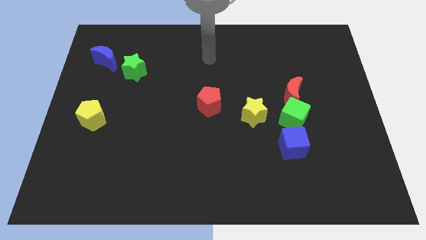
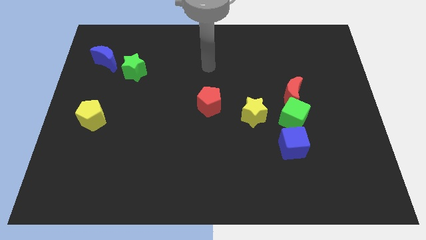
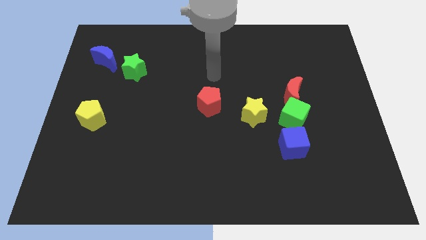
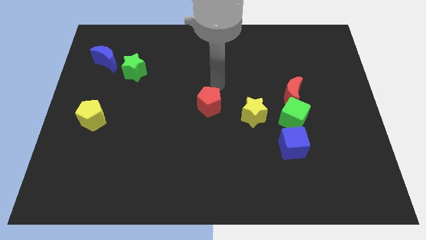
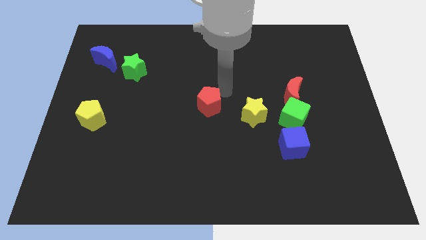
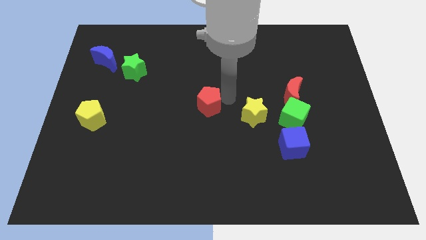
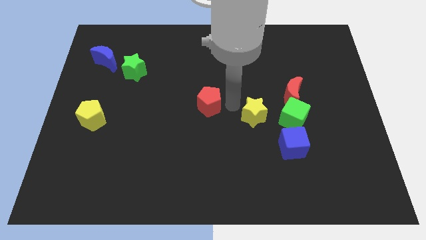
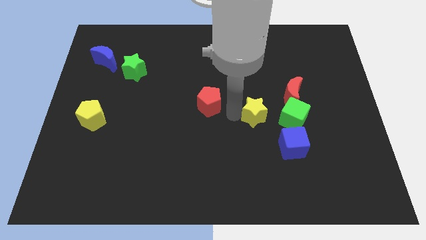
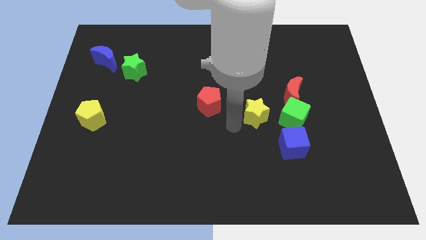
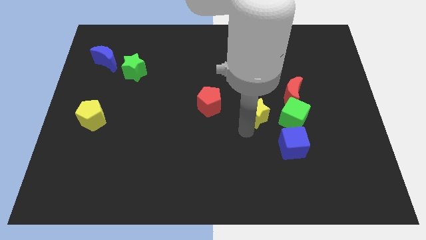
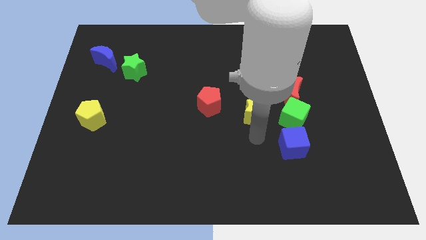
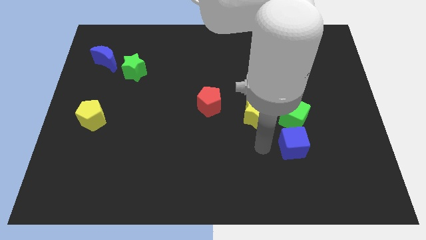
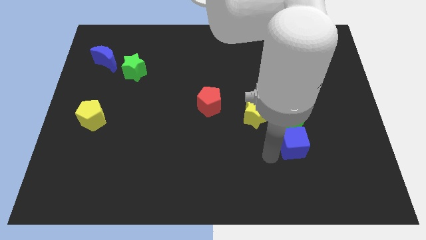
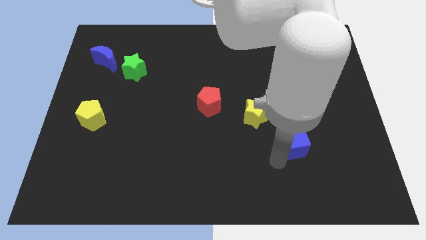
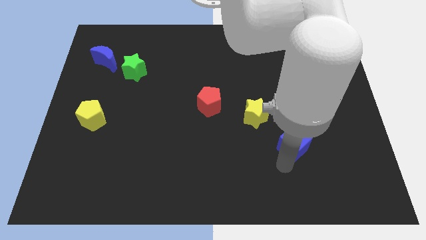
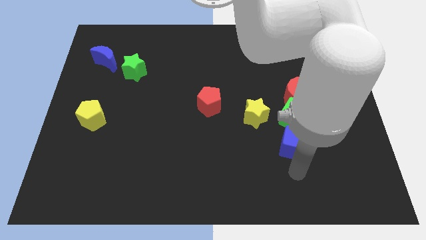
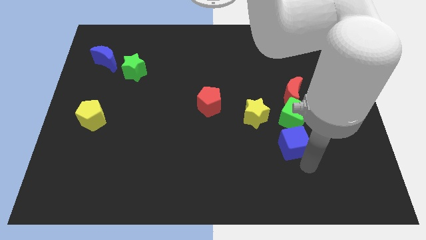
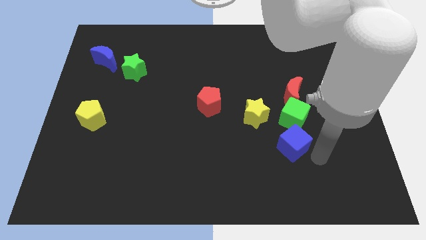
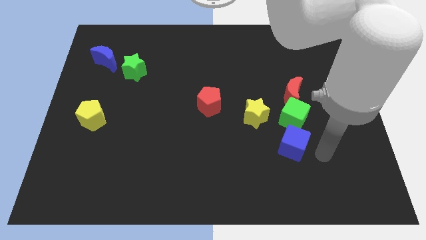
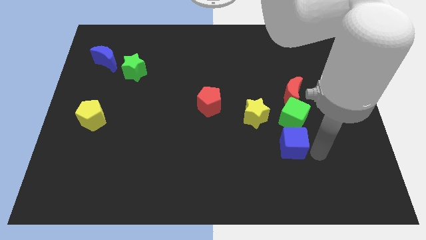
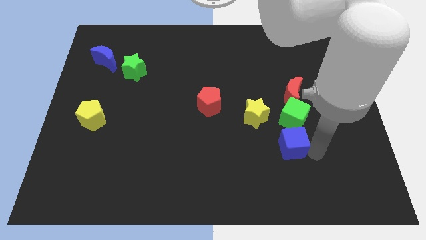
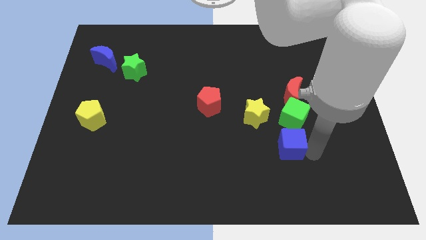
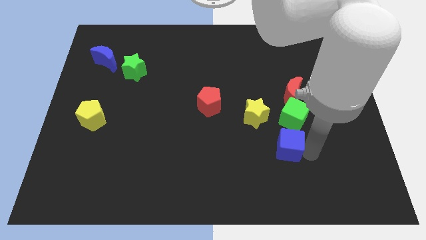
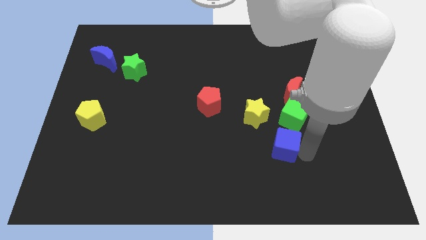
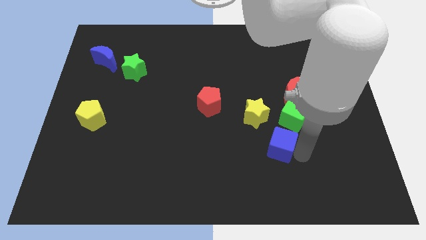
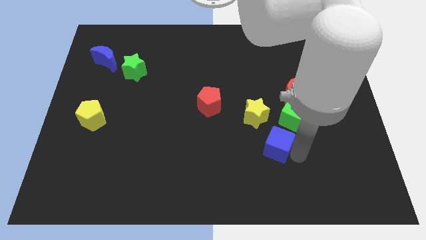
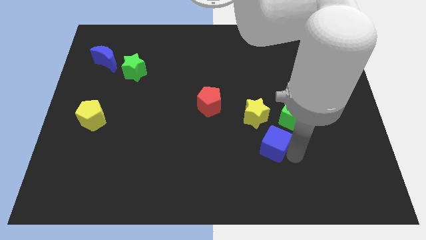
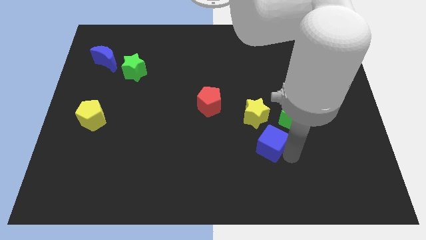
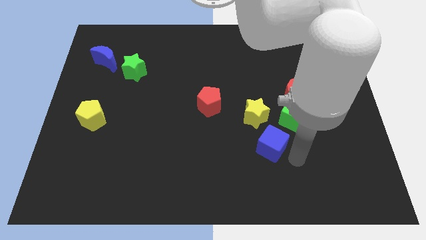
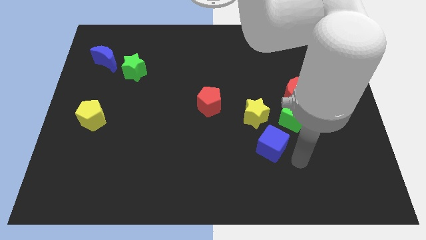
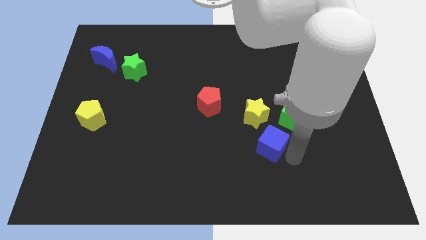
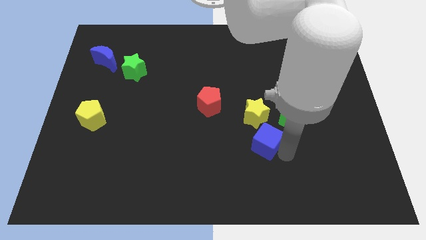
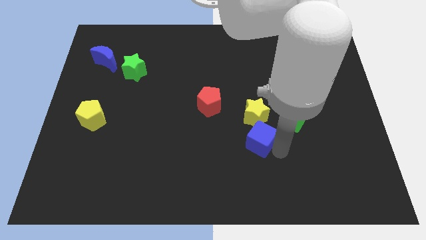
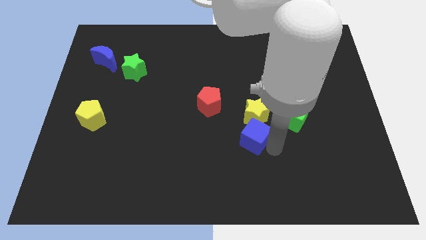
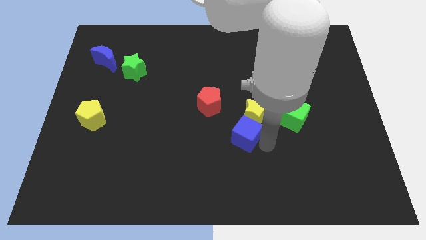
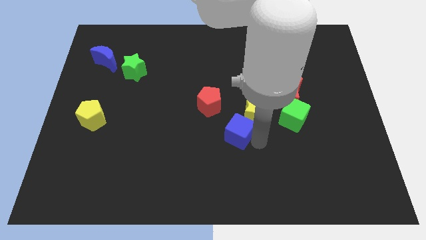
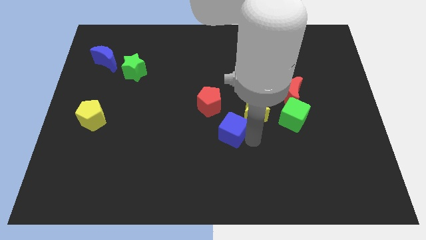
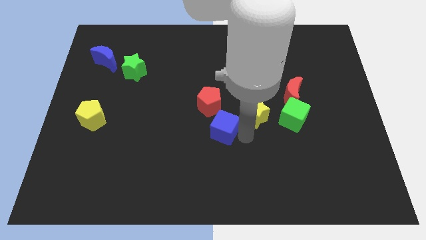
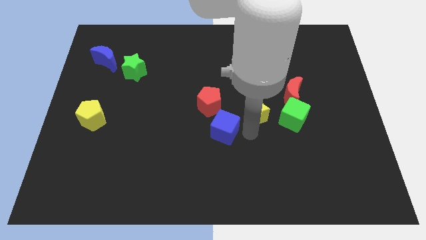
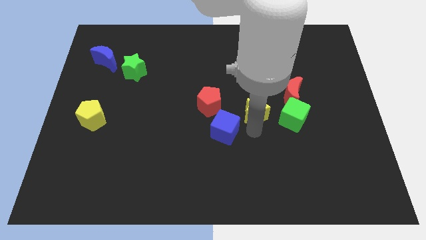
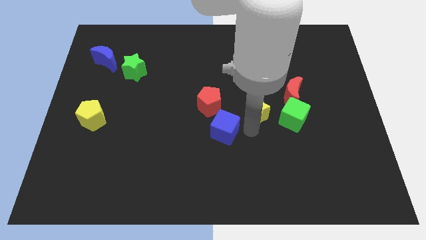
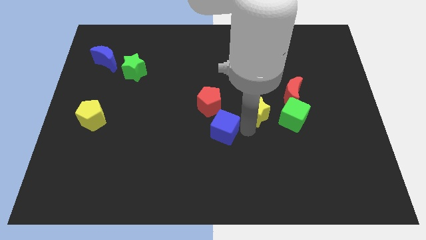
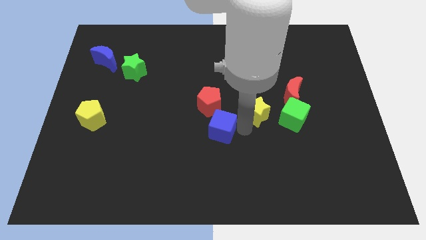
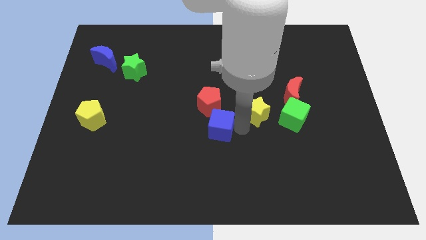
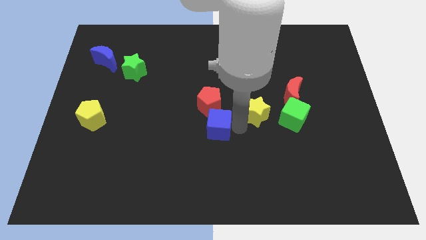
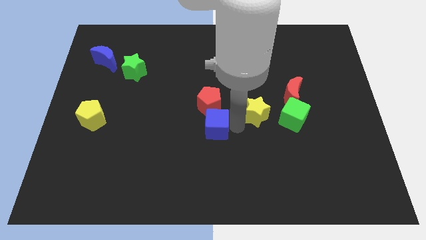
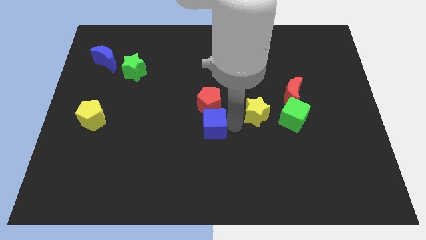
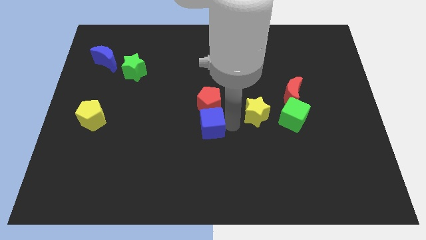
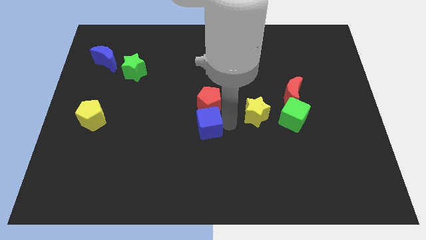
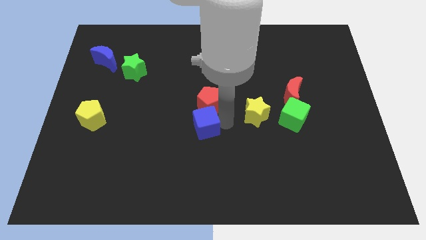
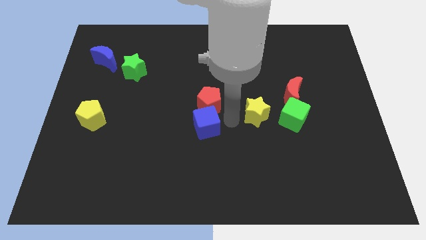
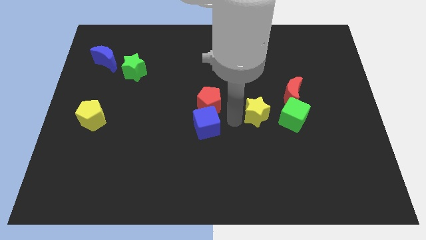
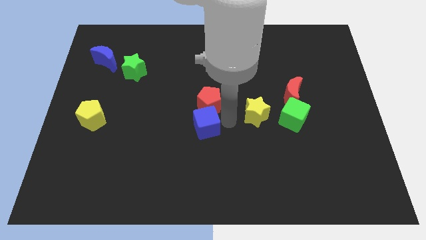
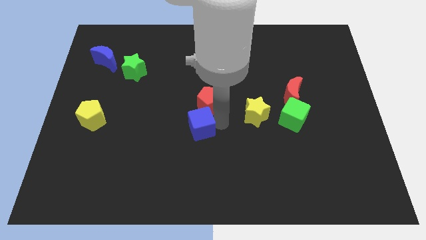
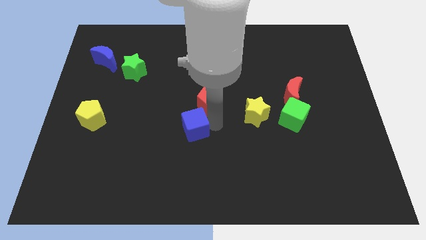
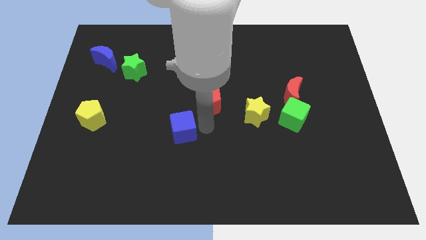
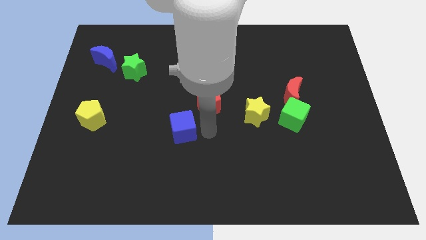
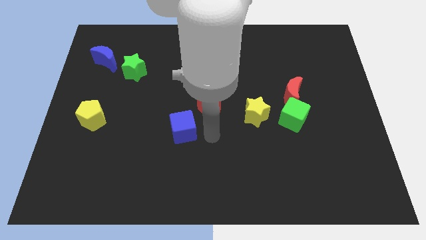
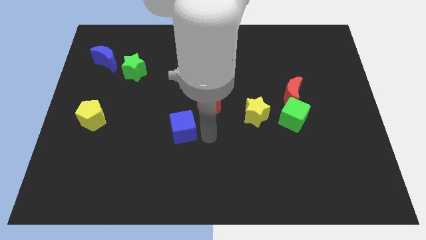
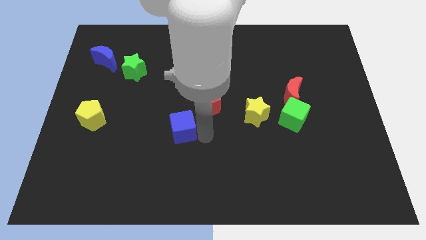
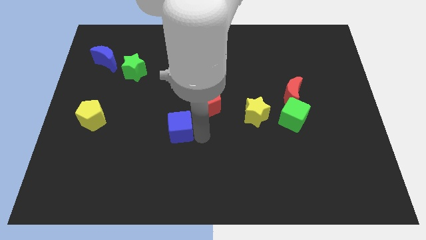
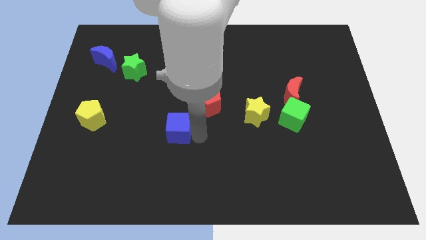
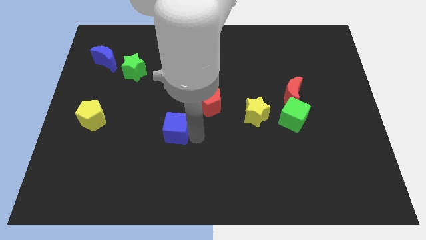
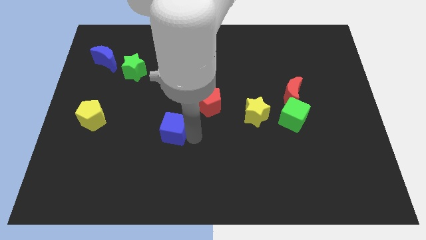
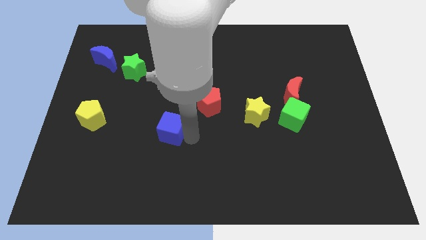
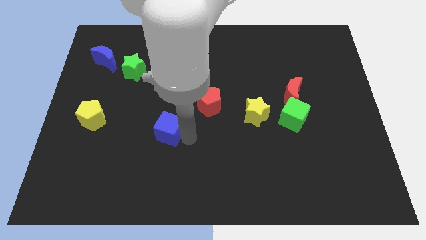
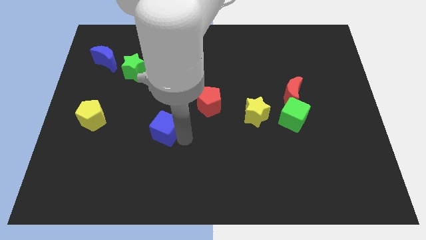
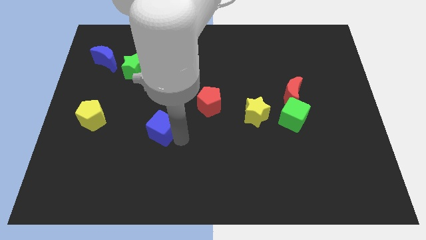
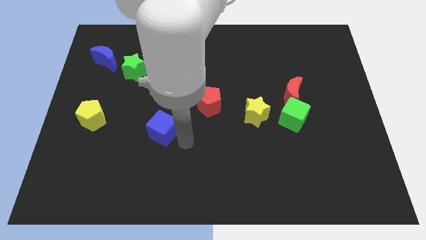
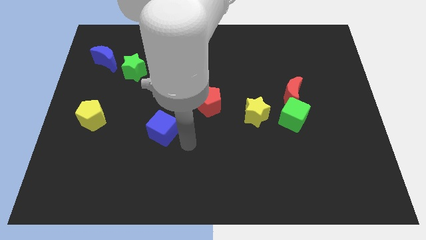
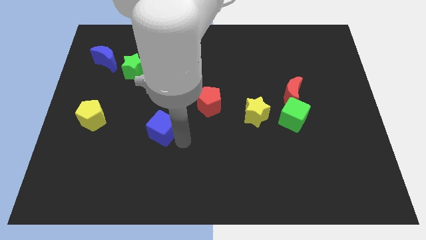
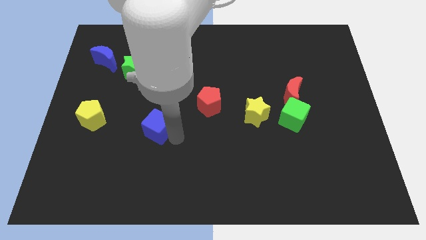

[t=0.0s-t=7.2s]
move the blue cube to the right side of the yellow pentagon

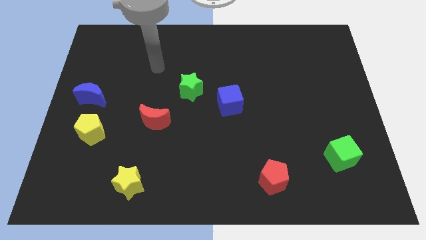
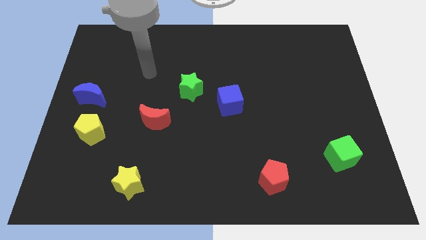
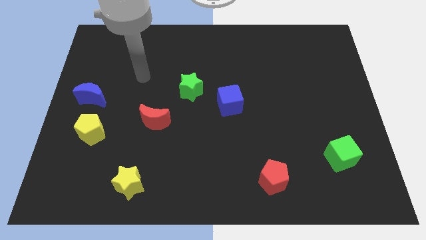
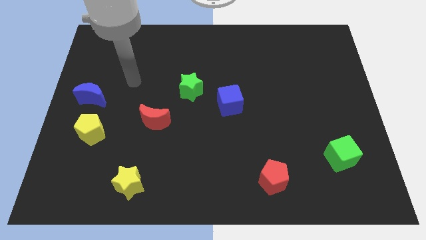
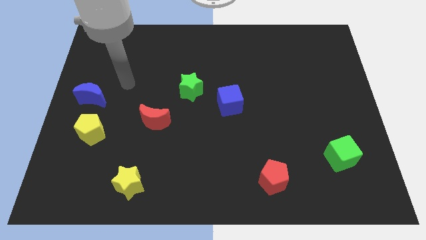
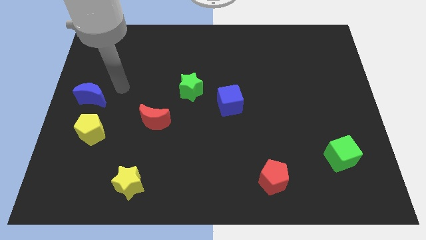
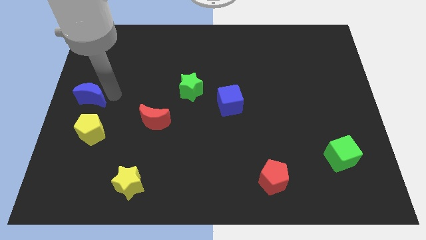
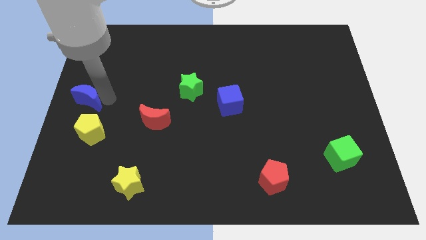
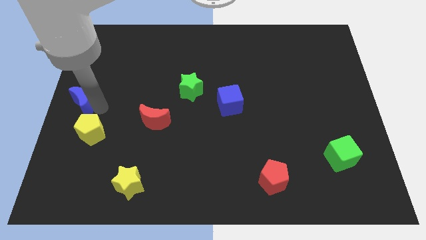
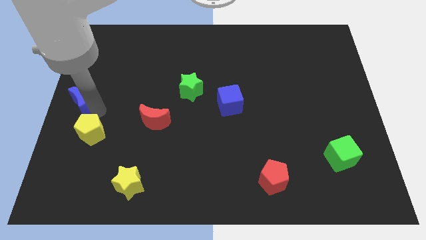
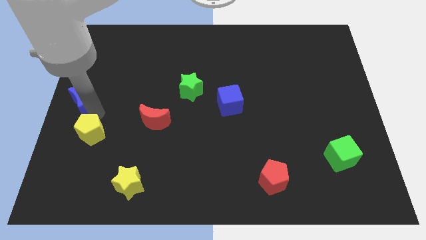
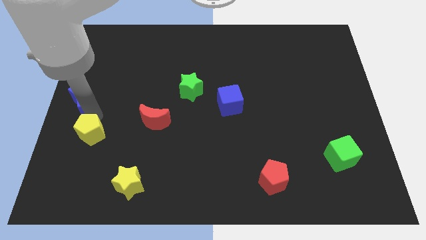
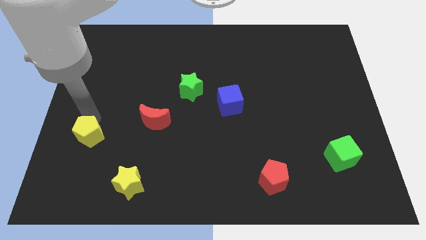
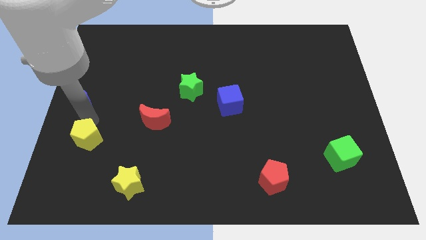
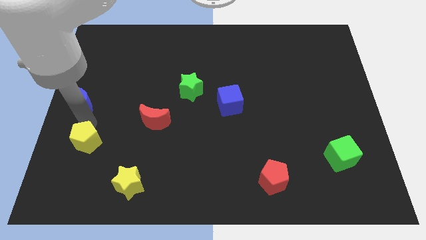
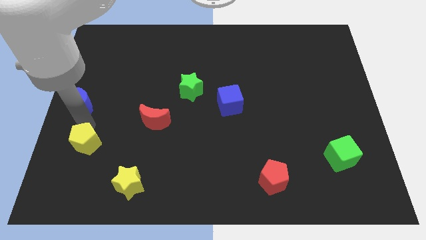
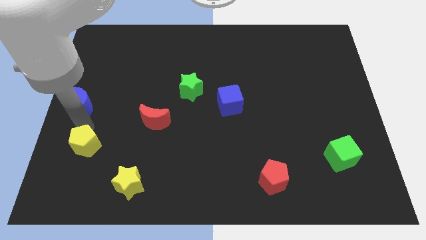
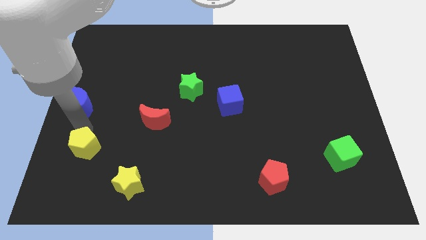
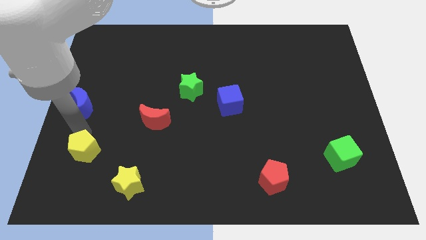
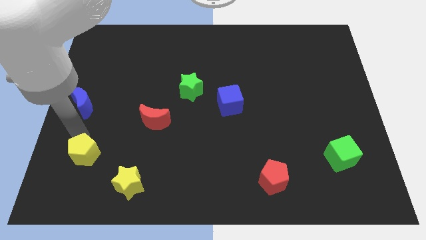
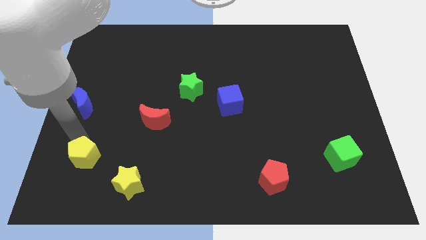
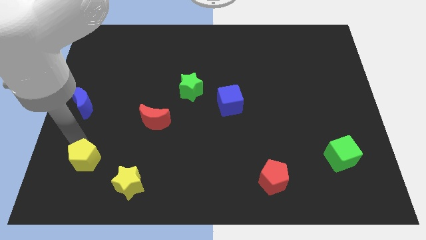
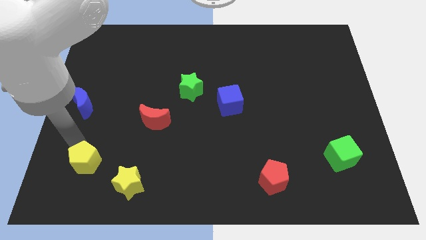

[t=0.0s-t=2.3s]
put the yellow pentagon left of the yellow star
